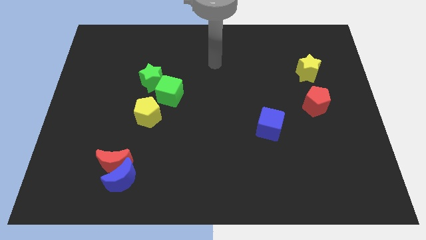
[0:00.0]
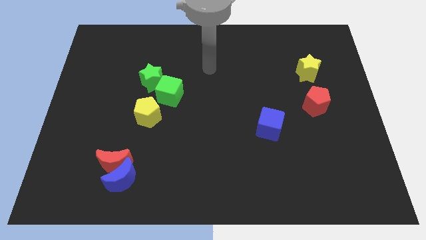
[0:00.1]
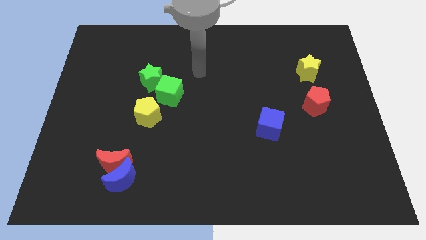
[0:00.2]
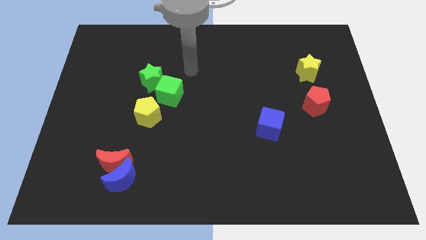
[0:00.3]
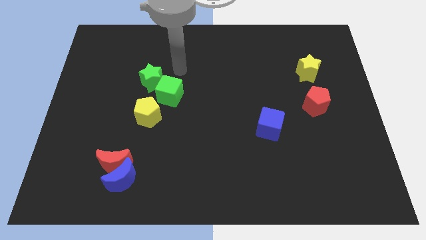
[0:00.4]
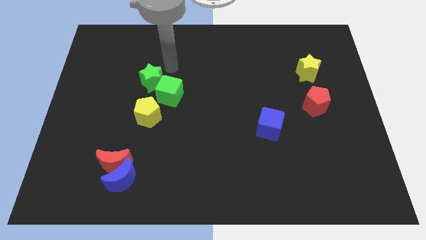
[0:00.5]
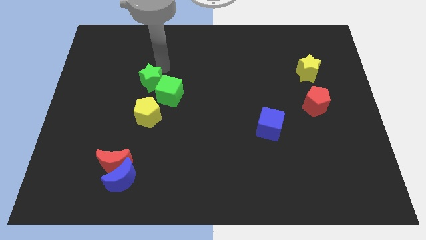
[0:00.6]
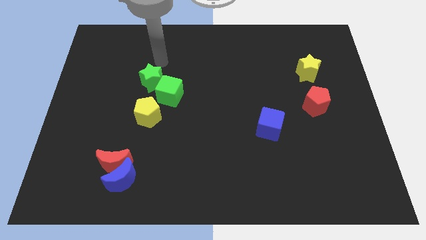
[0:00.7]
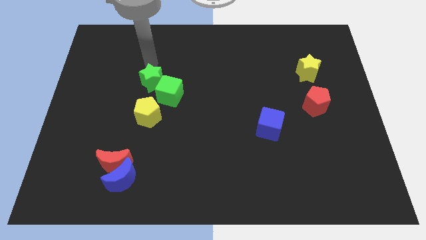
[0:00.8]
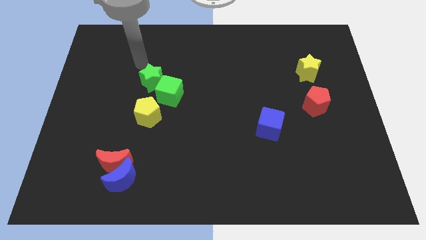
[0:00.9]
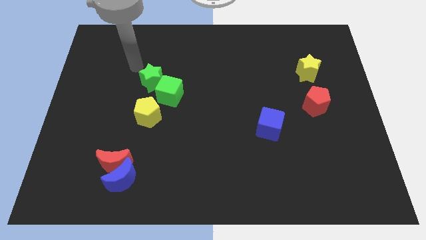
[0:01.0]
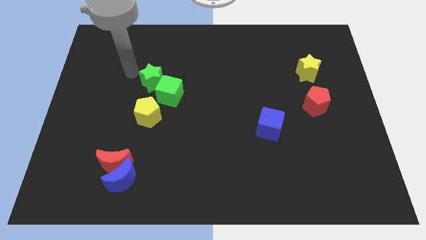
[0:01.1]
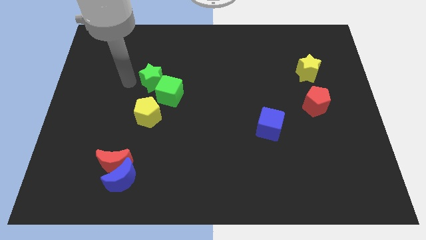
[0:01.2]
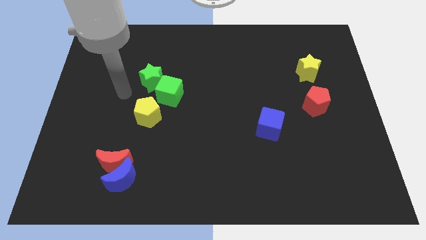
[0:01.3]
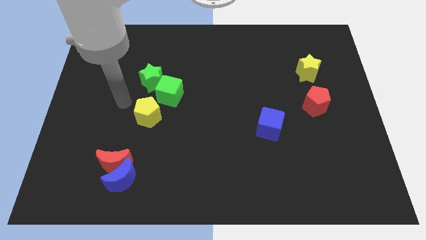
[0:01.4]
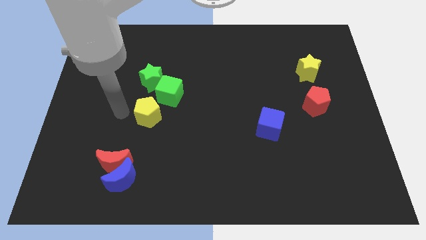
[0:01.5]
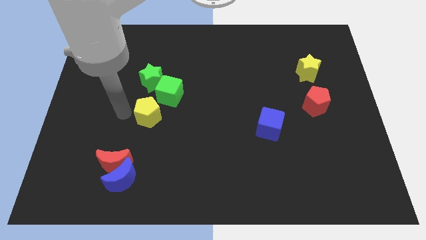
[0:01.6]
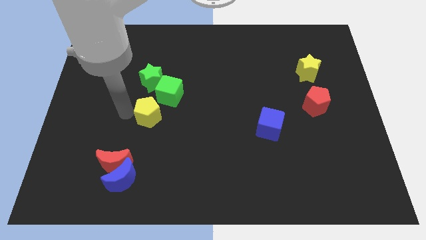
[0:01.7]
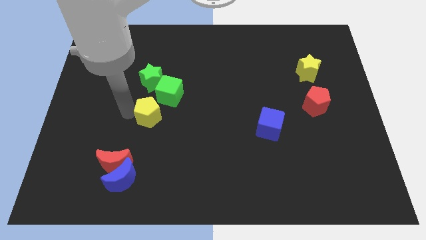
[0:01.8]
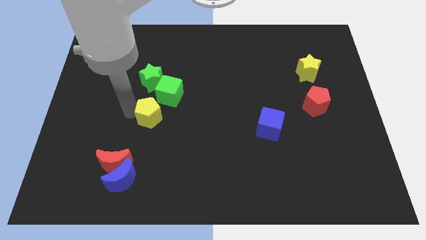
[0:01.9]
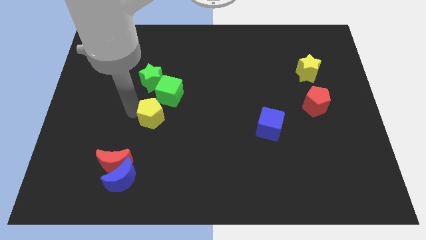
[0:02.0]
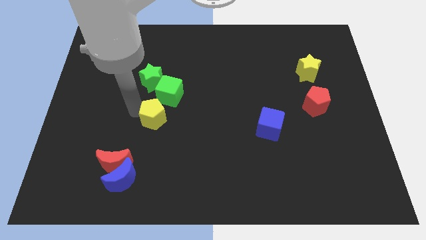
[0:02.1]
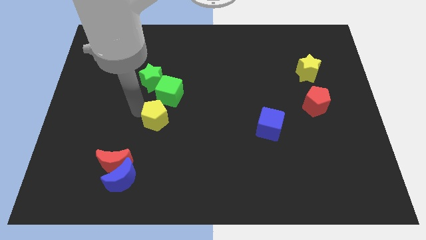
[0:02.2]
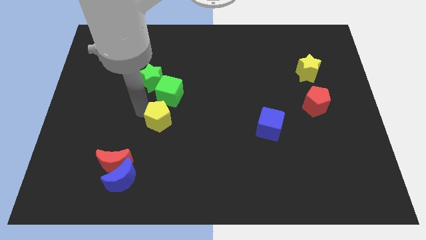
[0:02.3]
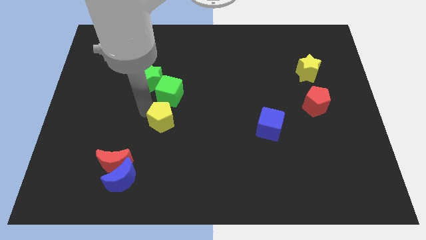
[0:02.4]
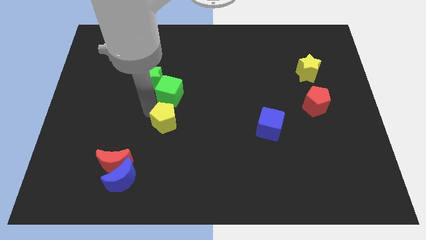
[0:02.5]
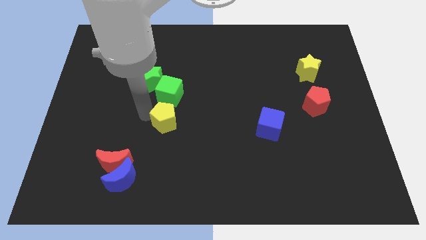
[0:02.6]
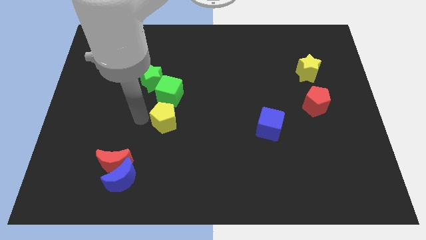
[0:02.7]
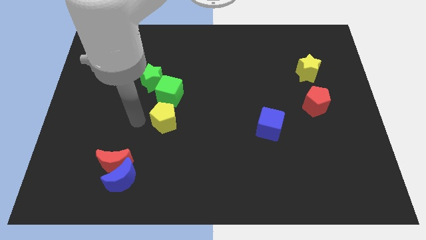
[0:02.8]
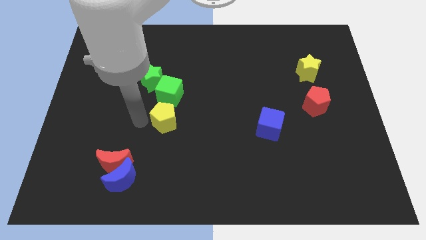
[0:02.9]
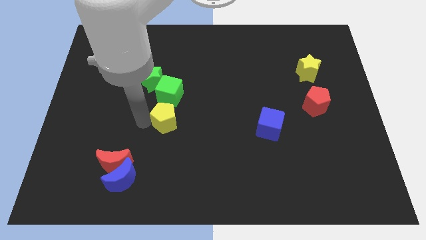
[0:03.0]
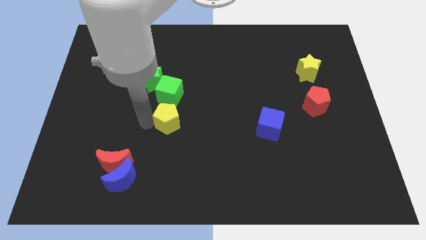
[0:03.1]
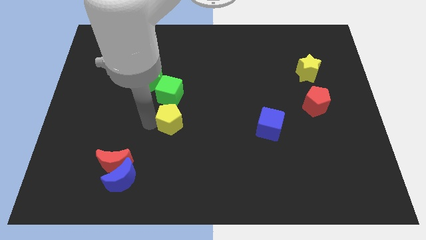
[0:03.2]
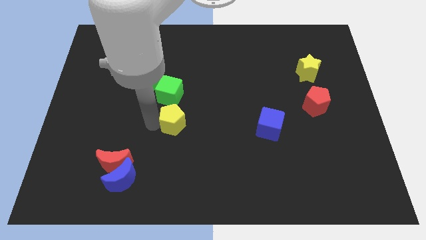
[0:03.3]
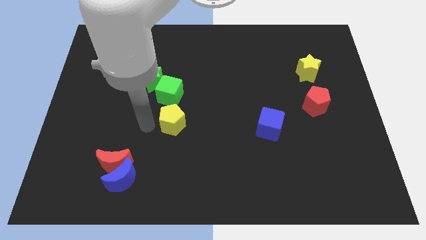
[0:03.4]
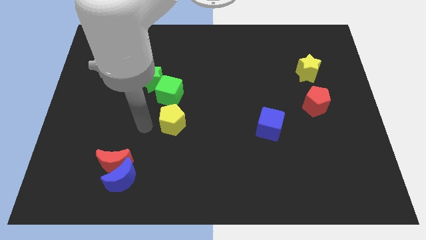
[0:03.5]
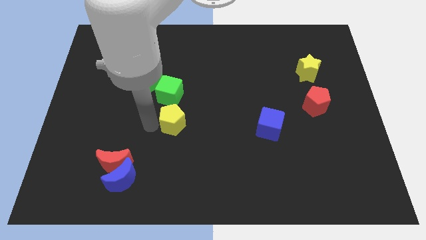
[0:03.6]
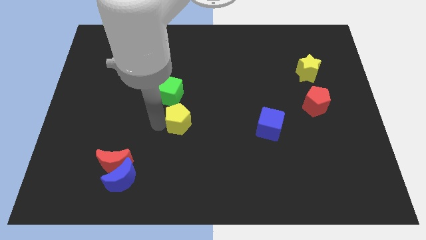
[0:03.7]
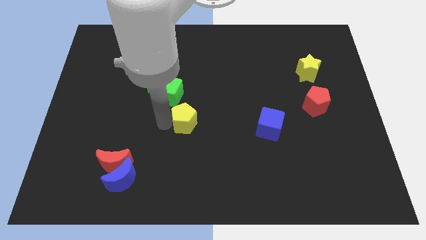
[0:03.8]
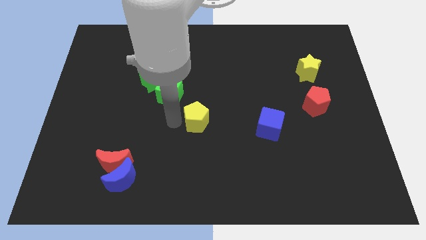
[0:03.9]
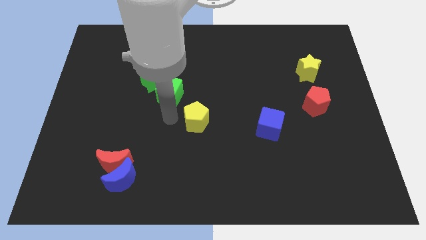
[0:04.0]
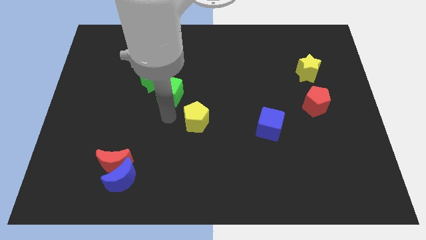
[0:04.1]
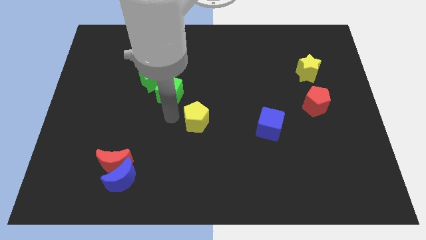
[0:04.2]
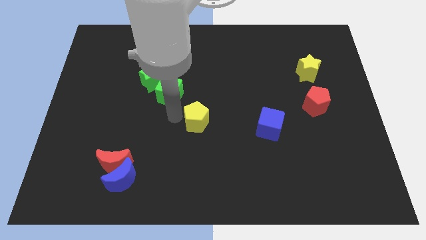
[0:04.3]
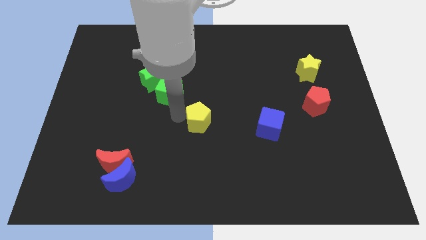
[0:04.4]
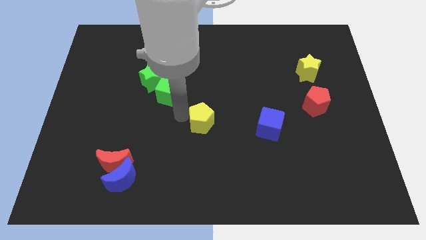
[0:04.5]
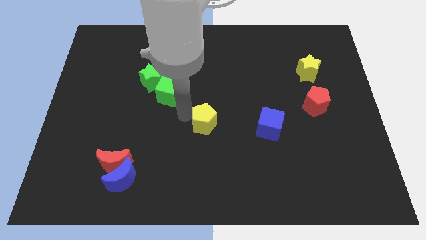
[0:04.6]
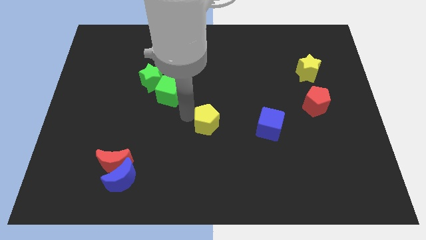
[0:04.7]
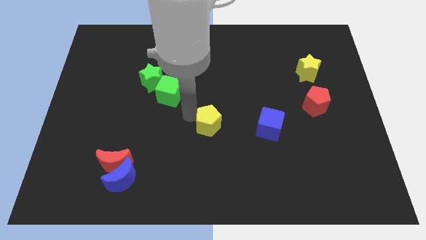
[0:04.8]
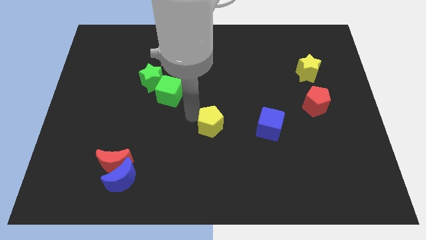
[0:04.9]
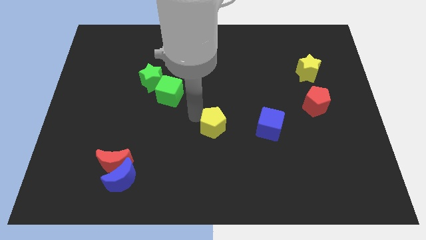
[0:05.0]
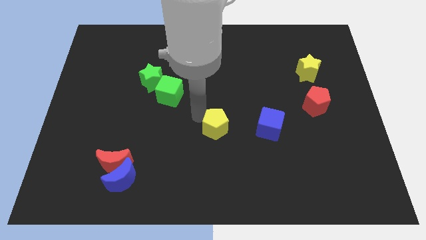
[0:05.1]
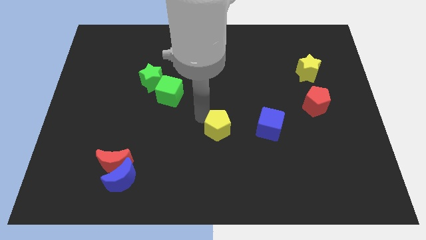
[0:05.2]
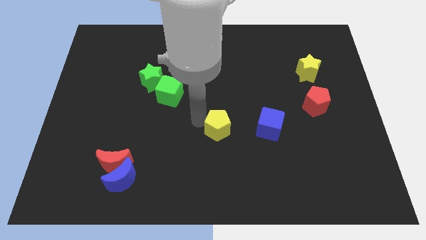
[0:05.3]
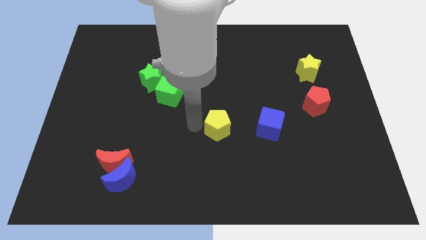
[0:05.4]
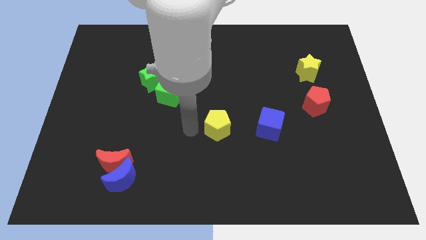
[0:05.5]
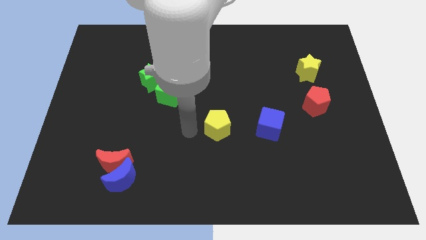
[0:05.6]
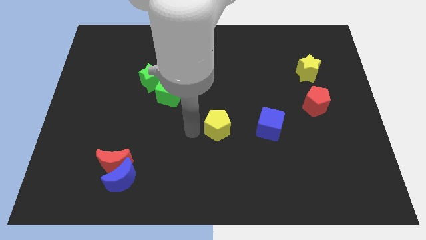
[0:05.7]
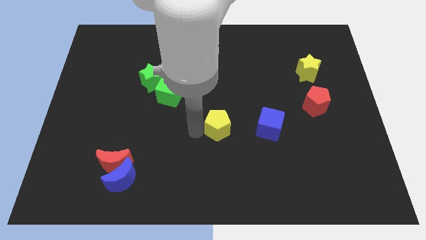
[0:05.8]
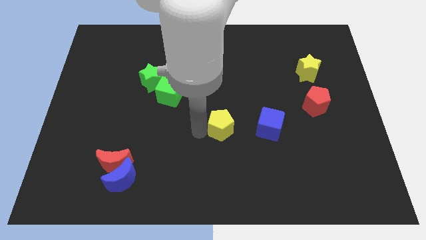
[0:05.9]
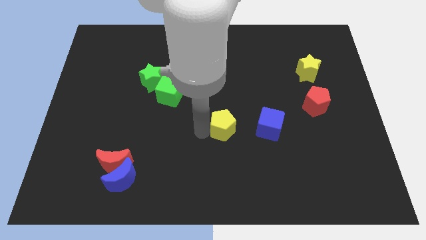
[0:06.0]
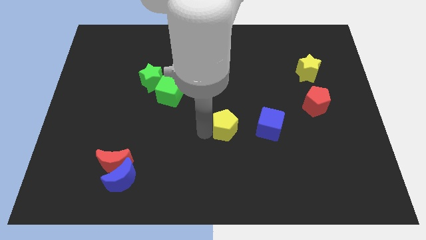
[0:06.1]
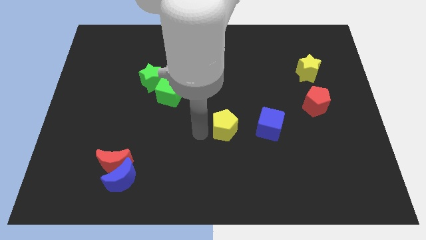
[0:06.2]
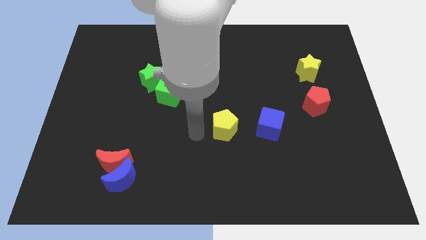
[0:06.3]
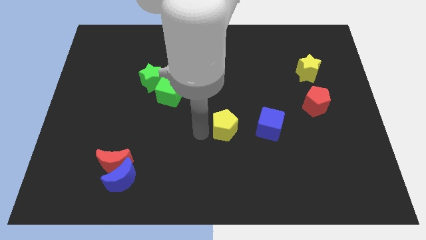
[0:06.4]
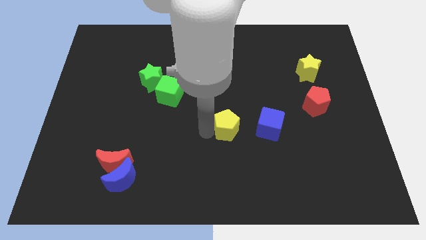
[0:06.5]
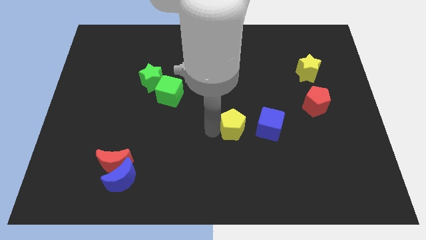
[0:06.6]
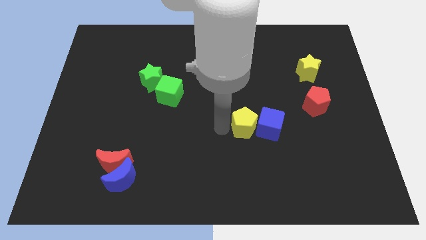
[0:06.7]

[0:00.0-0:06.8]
push the yellow pentagon next to the blue cube
